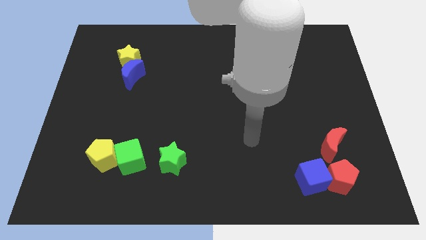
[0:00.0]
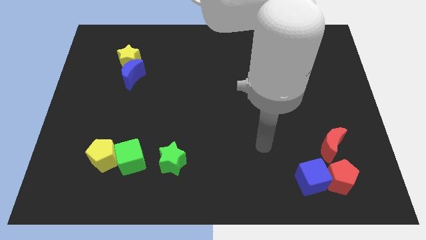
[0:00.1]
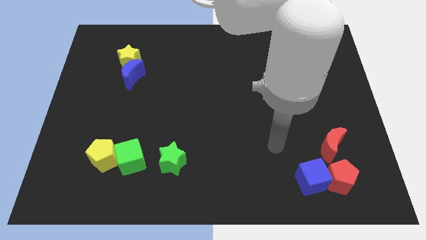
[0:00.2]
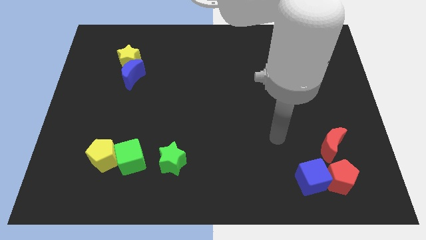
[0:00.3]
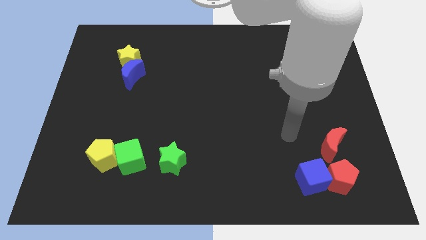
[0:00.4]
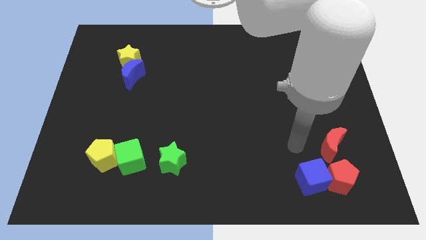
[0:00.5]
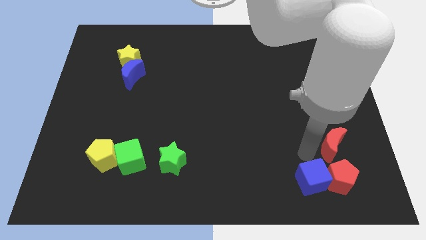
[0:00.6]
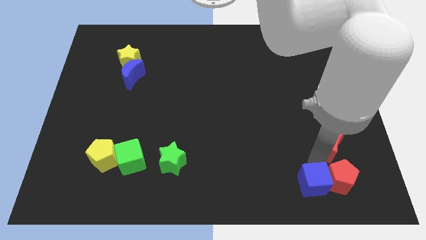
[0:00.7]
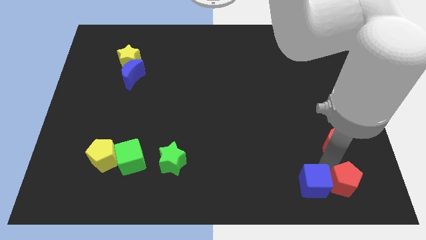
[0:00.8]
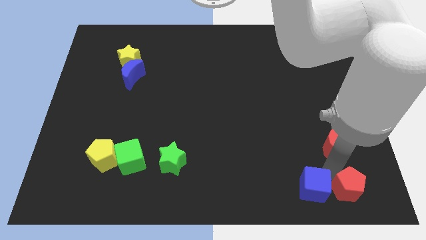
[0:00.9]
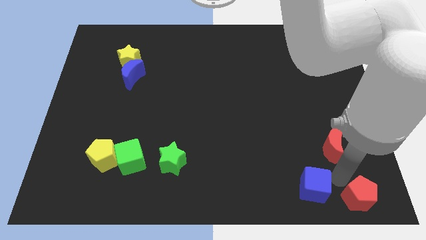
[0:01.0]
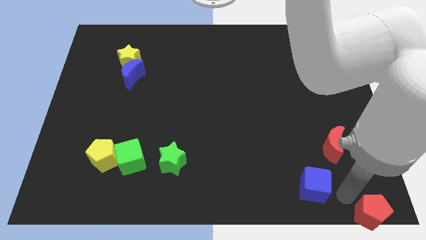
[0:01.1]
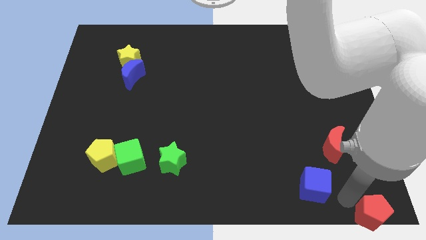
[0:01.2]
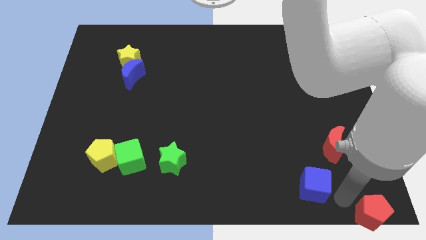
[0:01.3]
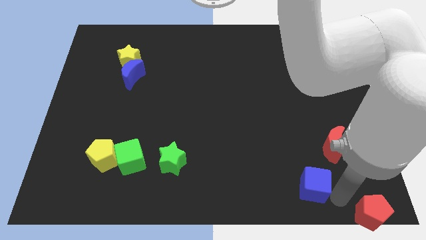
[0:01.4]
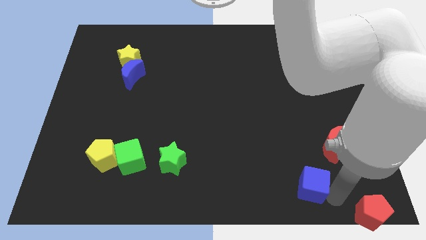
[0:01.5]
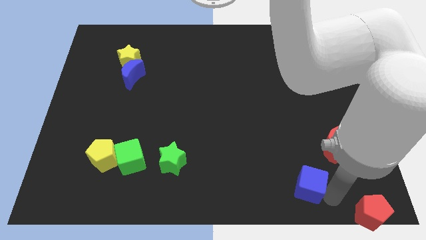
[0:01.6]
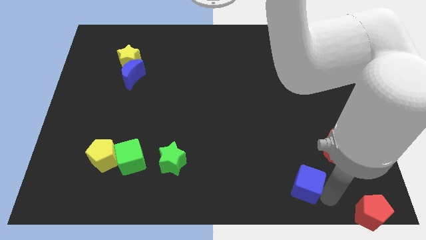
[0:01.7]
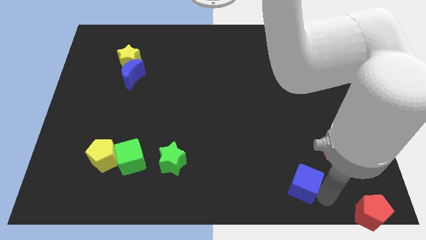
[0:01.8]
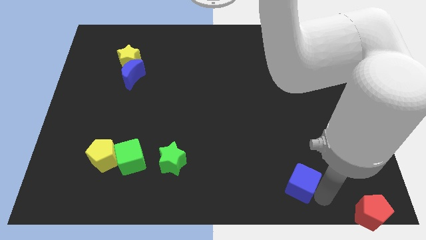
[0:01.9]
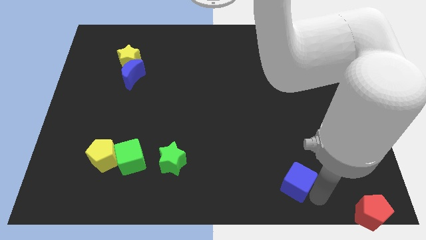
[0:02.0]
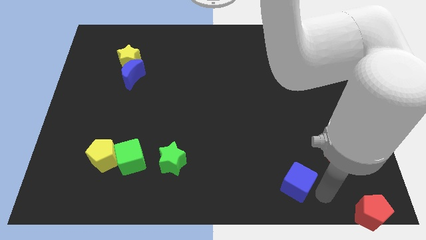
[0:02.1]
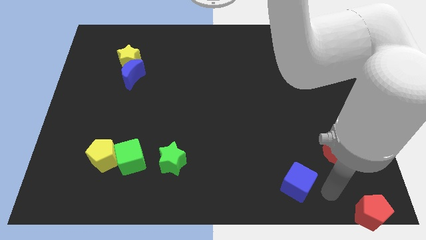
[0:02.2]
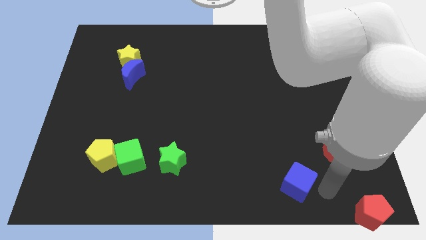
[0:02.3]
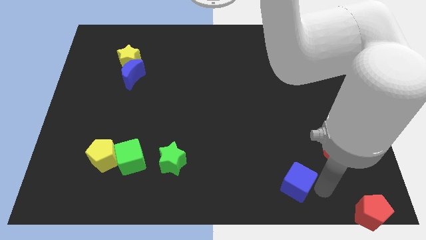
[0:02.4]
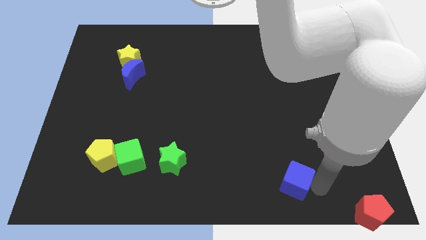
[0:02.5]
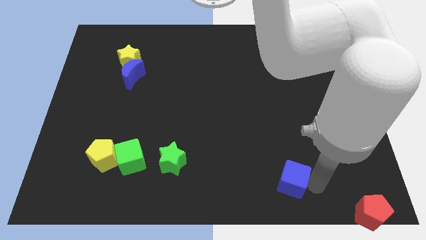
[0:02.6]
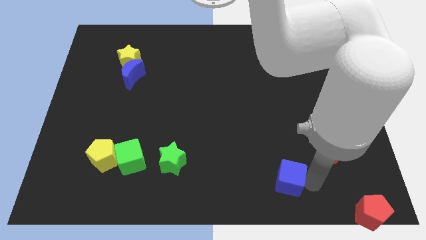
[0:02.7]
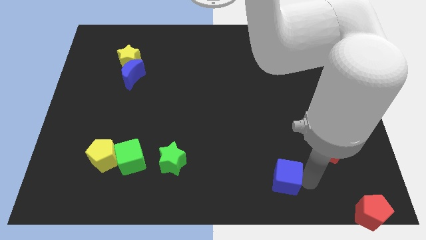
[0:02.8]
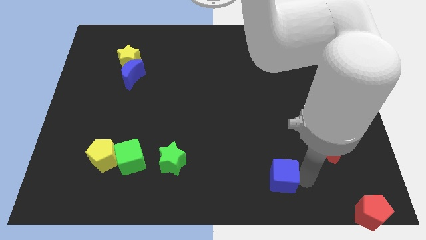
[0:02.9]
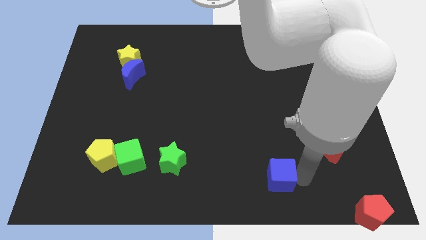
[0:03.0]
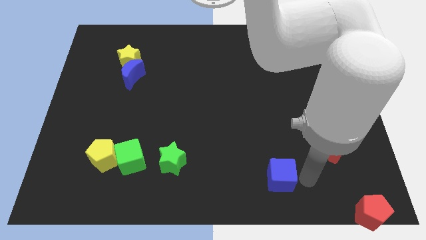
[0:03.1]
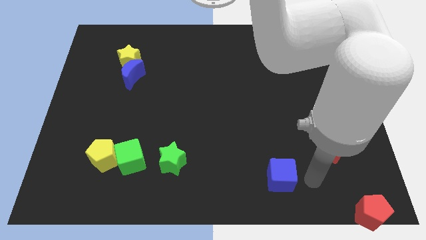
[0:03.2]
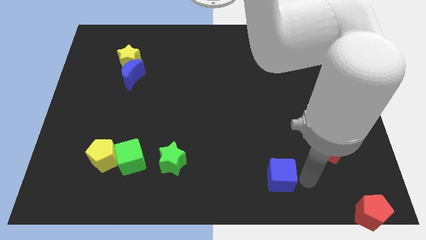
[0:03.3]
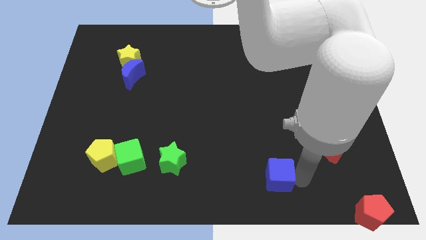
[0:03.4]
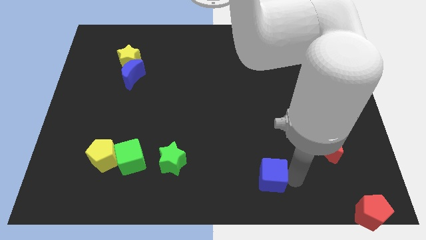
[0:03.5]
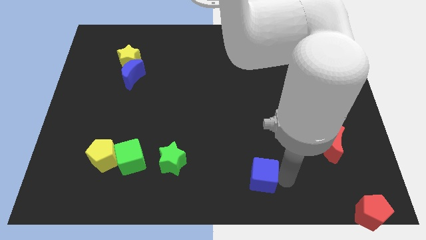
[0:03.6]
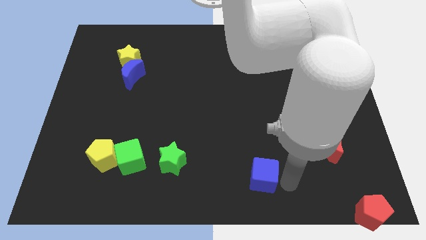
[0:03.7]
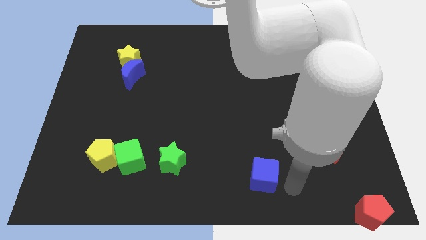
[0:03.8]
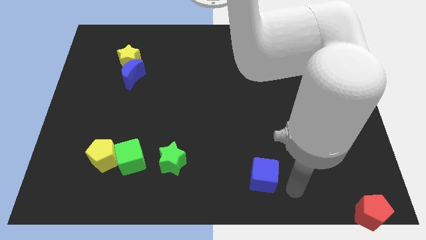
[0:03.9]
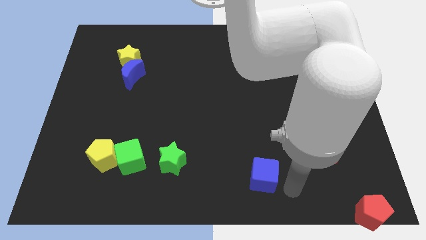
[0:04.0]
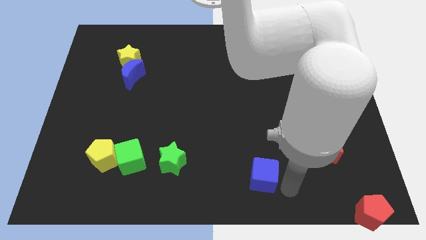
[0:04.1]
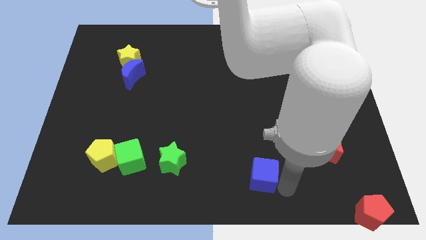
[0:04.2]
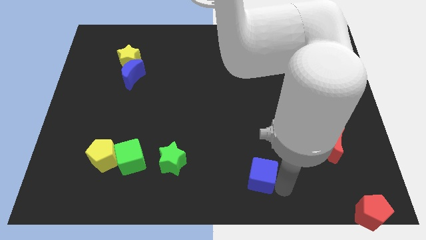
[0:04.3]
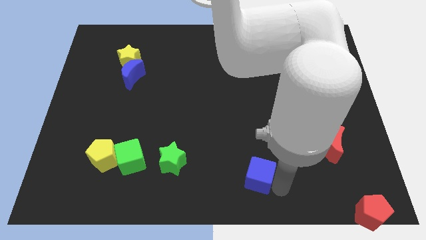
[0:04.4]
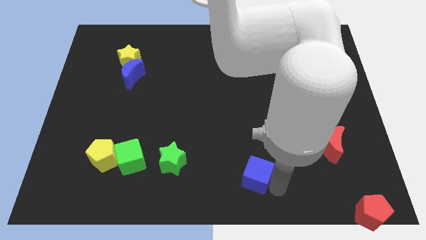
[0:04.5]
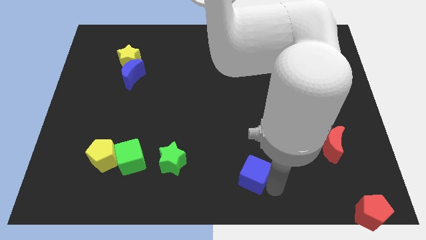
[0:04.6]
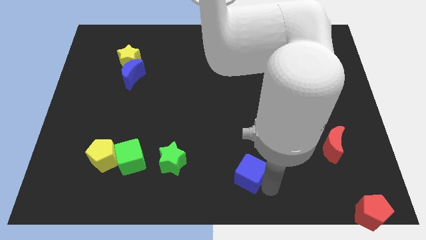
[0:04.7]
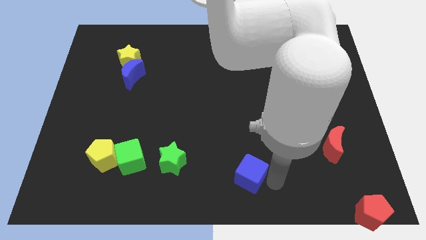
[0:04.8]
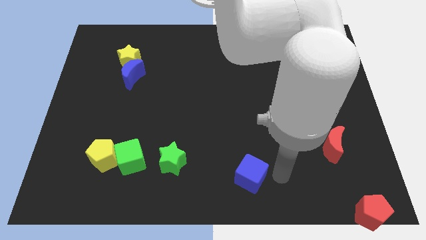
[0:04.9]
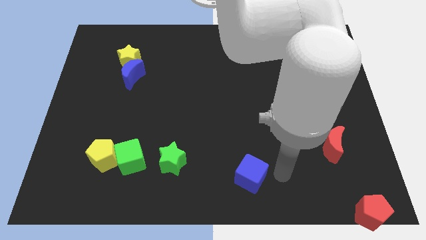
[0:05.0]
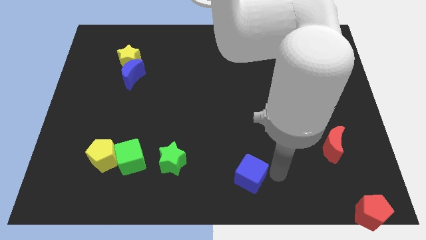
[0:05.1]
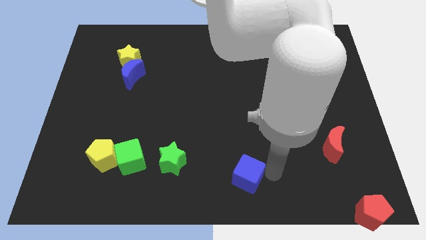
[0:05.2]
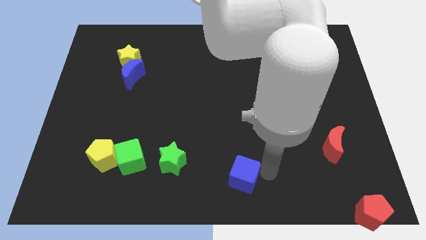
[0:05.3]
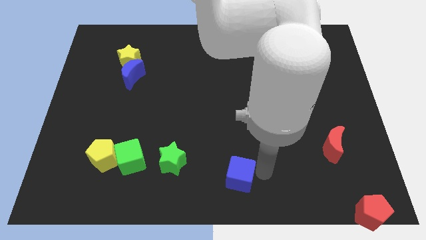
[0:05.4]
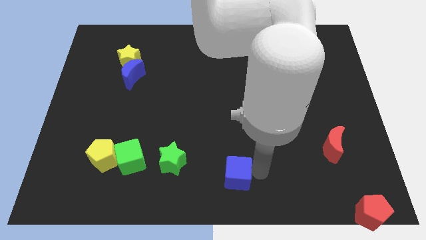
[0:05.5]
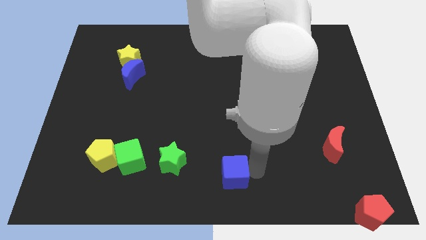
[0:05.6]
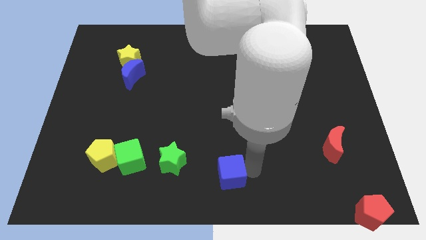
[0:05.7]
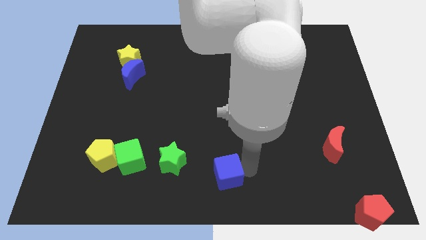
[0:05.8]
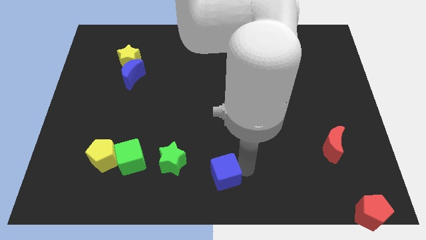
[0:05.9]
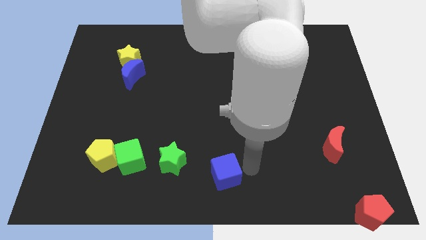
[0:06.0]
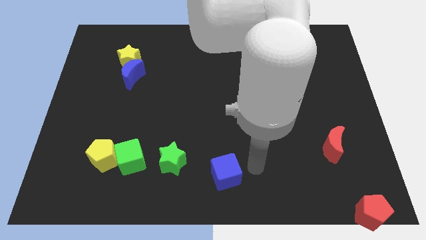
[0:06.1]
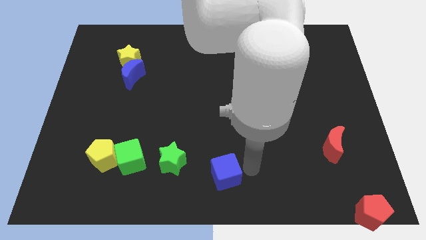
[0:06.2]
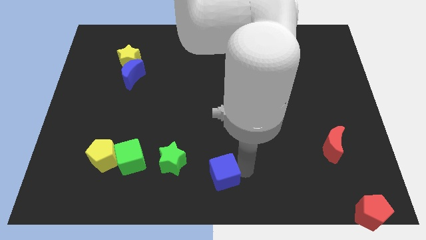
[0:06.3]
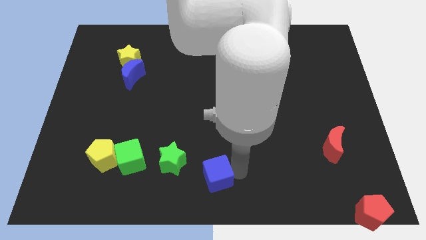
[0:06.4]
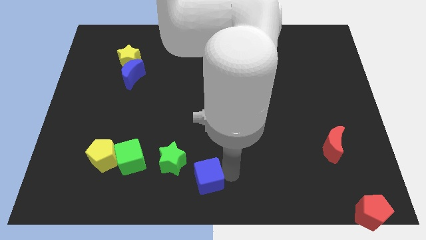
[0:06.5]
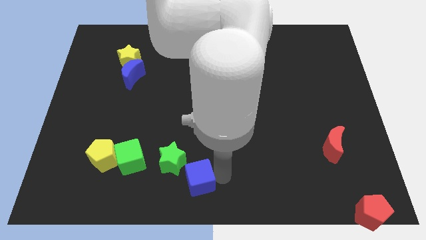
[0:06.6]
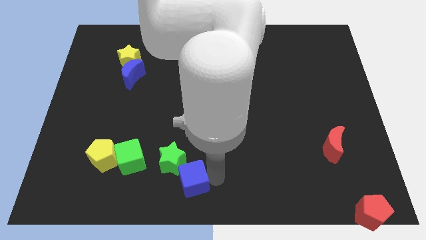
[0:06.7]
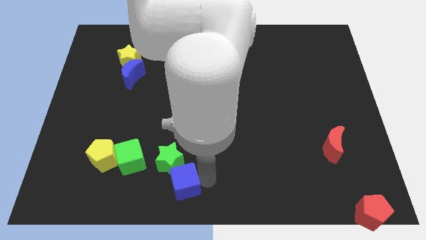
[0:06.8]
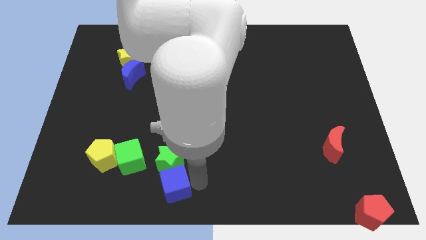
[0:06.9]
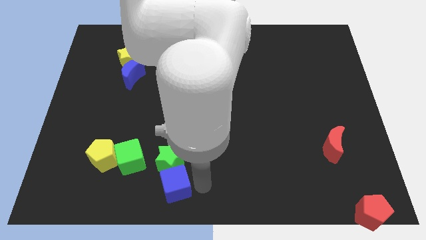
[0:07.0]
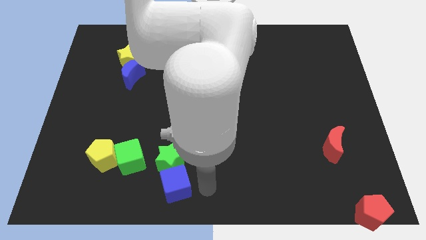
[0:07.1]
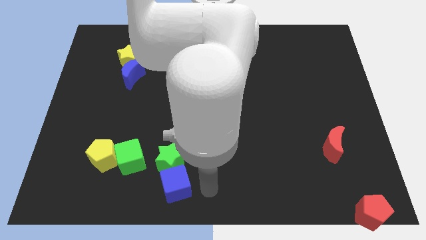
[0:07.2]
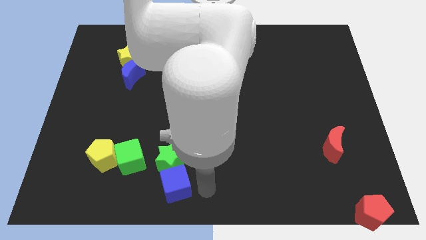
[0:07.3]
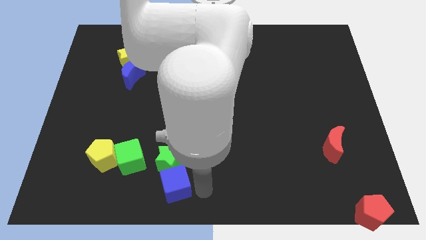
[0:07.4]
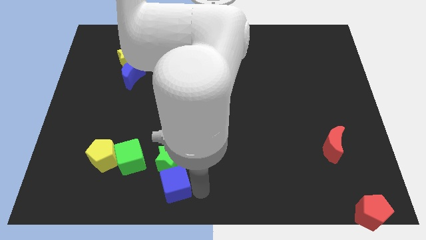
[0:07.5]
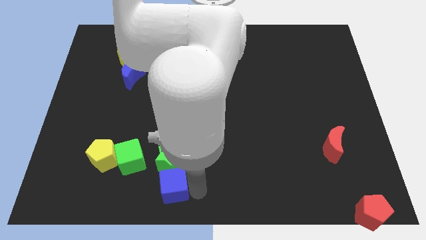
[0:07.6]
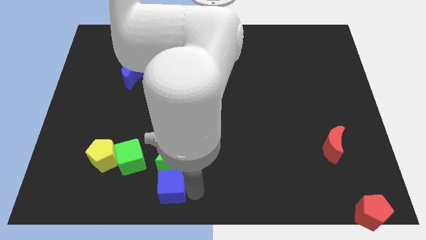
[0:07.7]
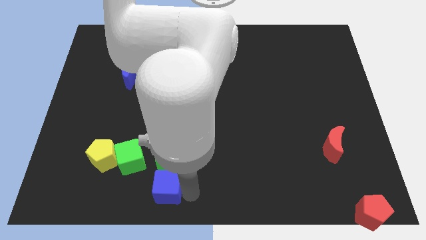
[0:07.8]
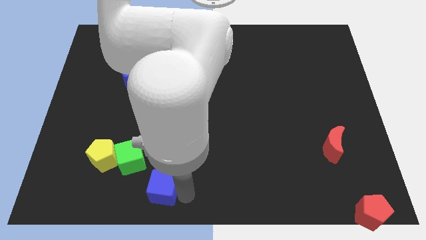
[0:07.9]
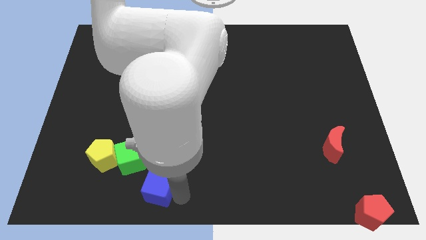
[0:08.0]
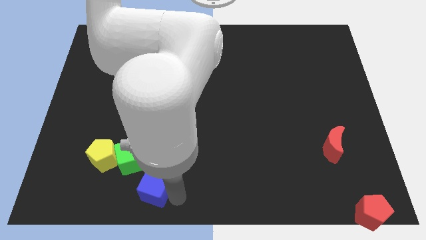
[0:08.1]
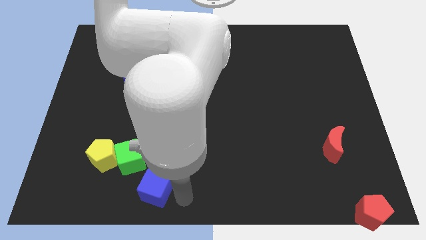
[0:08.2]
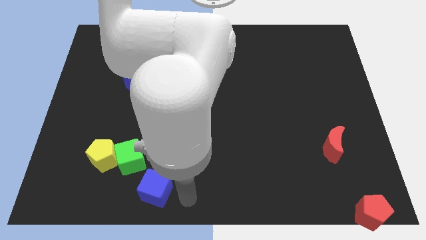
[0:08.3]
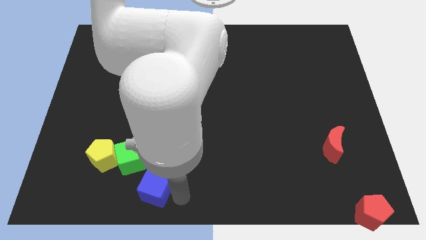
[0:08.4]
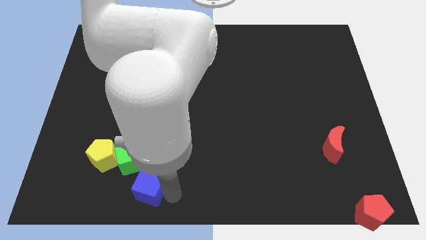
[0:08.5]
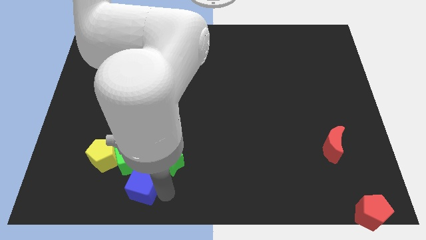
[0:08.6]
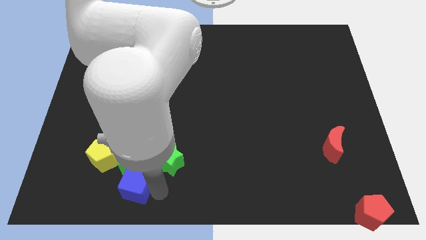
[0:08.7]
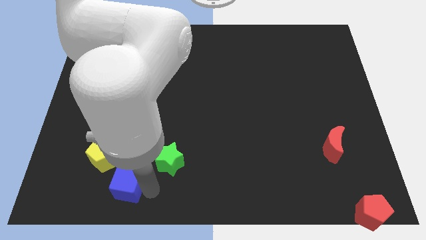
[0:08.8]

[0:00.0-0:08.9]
move the blue cube to the bottom left side of the green cube
